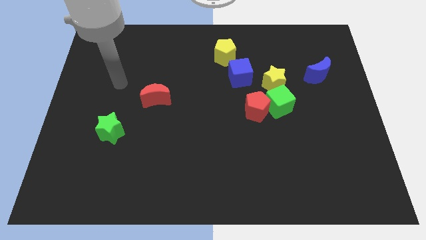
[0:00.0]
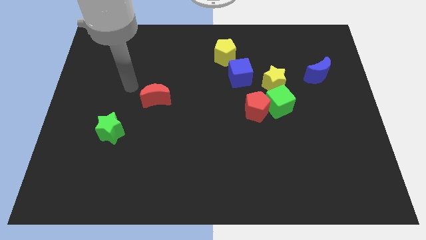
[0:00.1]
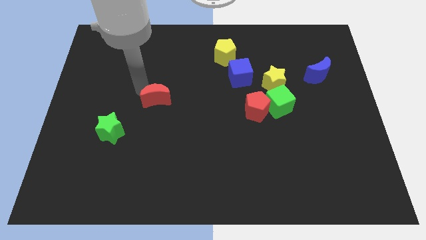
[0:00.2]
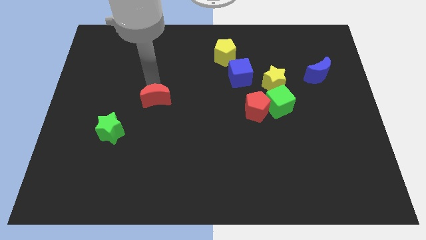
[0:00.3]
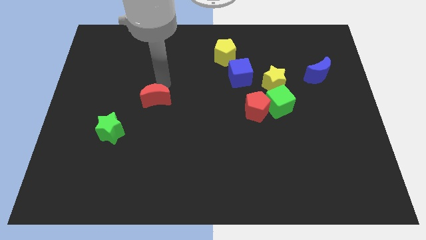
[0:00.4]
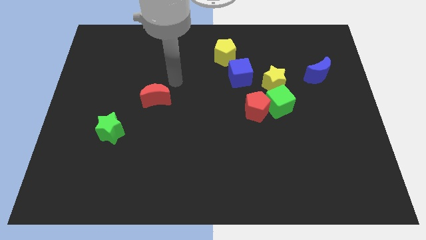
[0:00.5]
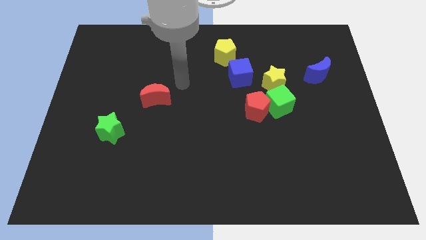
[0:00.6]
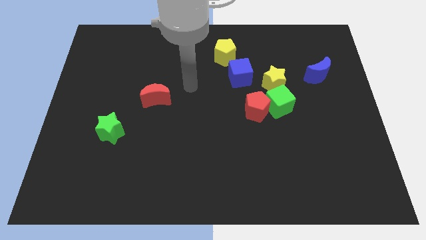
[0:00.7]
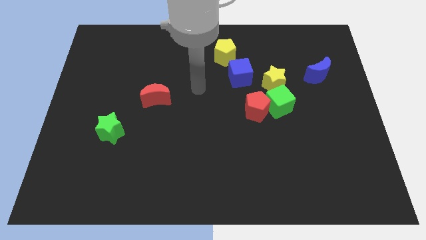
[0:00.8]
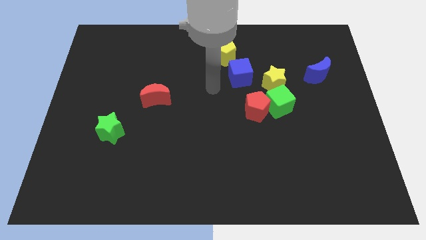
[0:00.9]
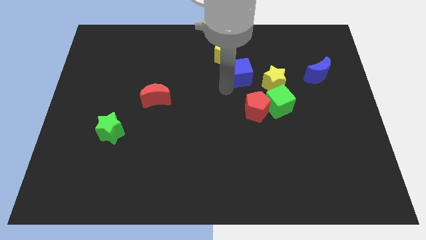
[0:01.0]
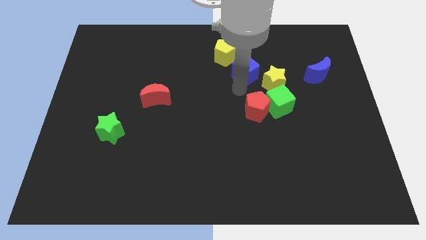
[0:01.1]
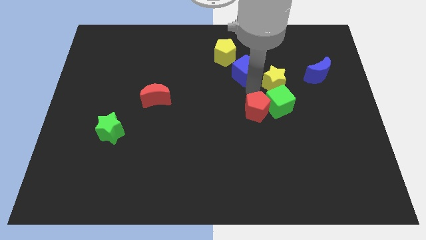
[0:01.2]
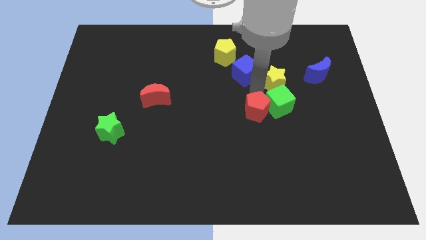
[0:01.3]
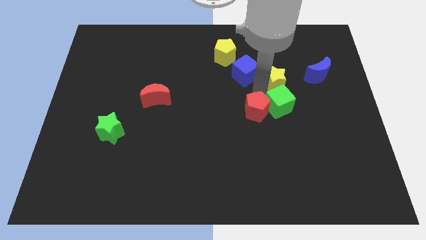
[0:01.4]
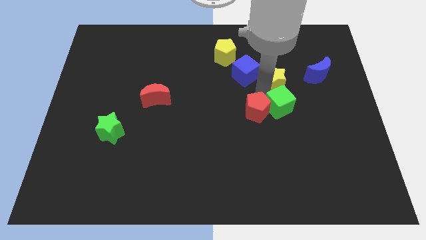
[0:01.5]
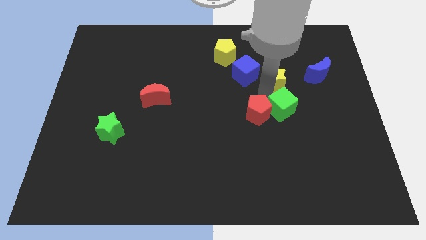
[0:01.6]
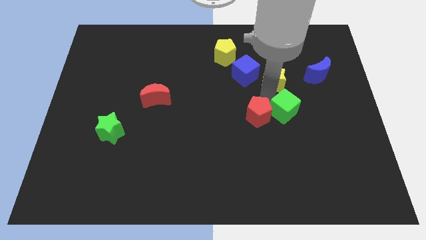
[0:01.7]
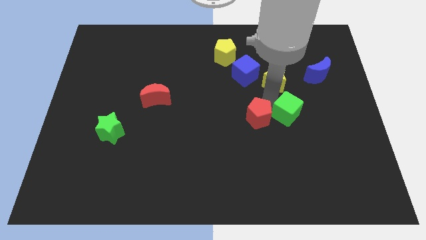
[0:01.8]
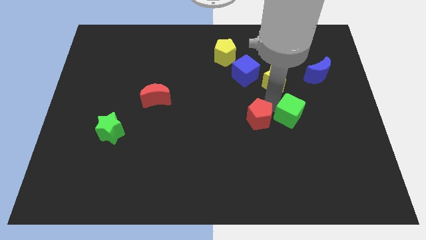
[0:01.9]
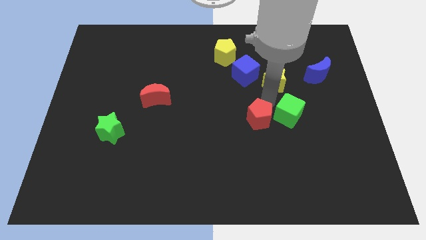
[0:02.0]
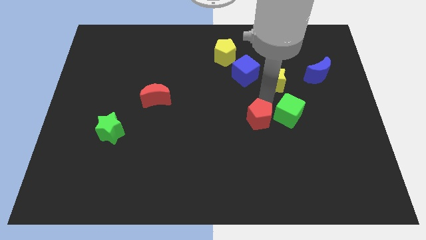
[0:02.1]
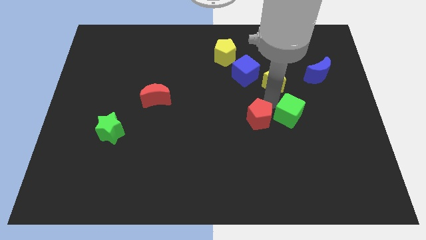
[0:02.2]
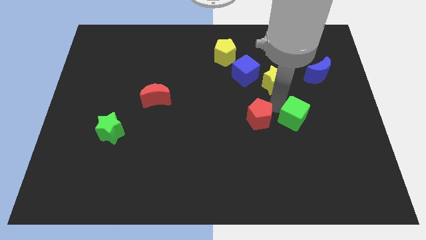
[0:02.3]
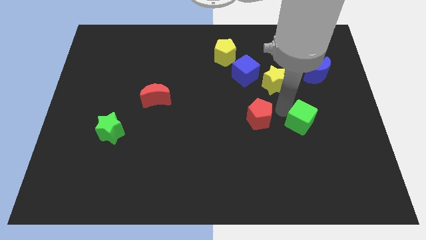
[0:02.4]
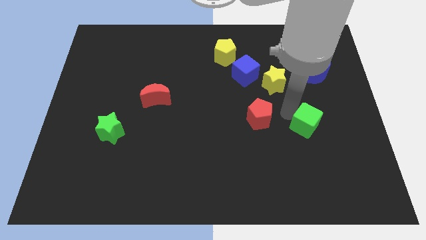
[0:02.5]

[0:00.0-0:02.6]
separate the green cube from the red pentagon and yellow star

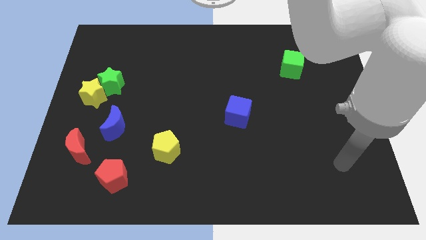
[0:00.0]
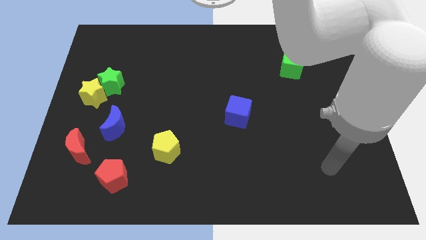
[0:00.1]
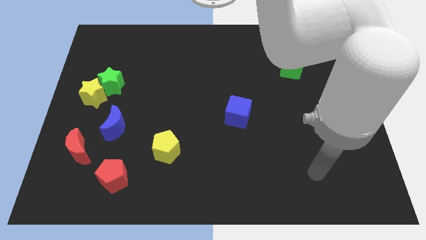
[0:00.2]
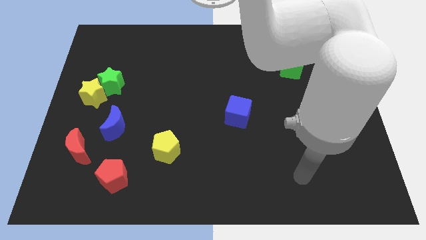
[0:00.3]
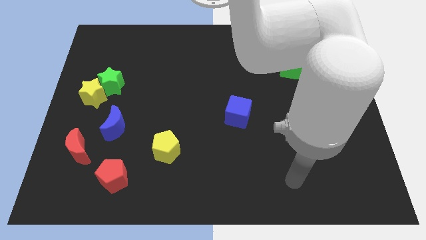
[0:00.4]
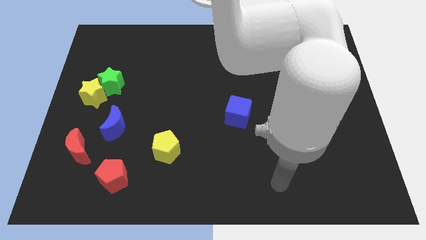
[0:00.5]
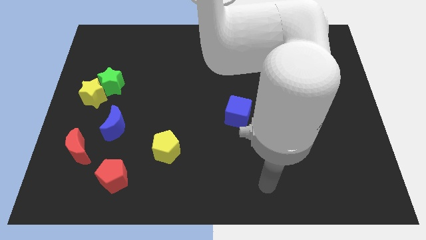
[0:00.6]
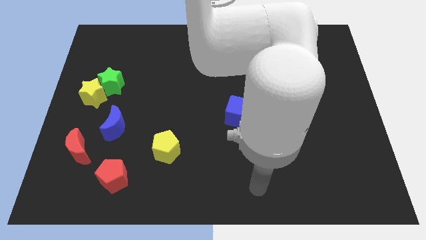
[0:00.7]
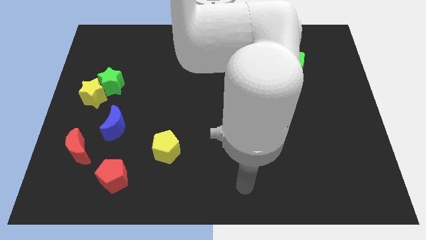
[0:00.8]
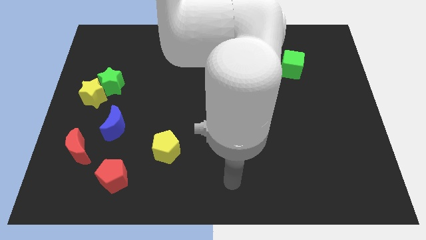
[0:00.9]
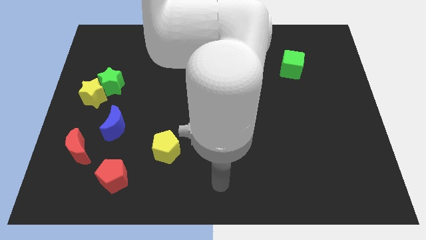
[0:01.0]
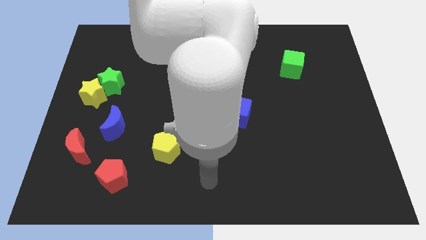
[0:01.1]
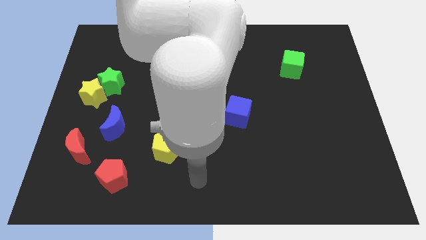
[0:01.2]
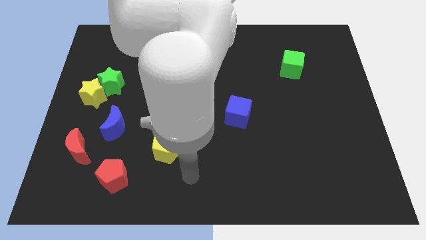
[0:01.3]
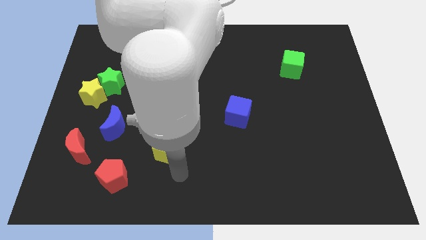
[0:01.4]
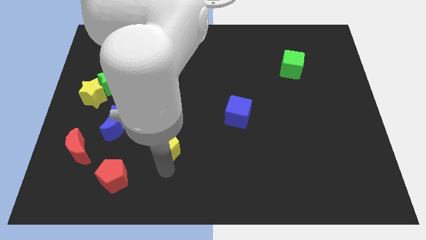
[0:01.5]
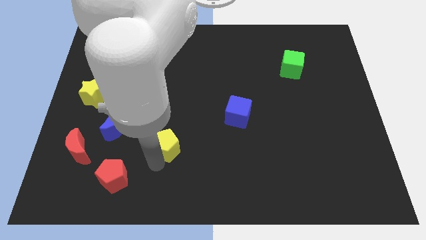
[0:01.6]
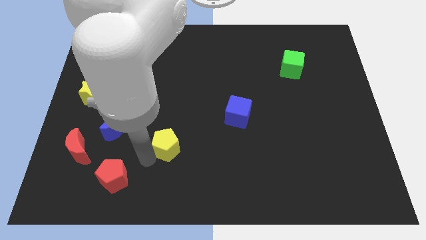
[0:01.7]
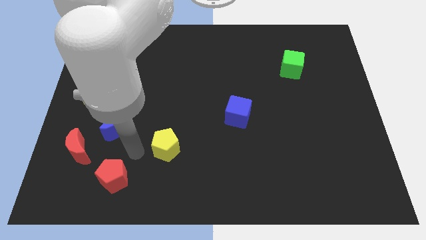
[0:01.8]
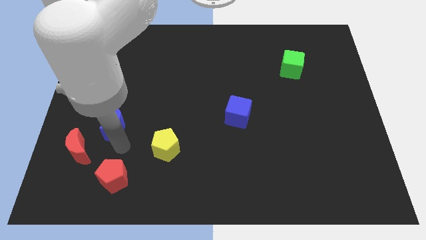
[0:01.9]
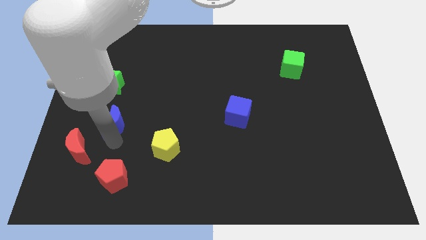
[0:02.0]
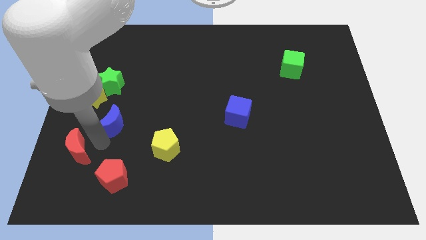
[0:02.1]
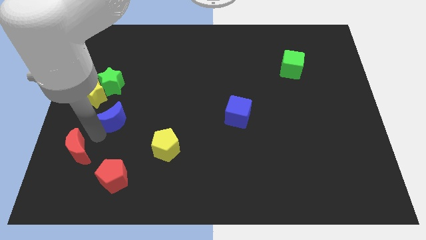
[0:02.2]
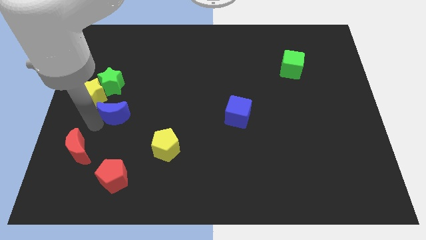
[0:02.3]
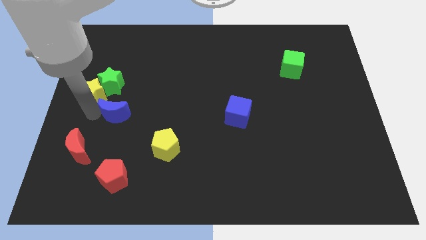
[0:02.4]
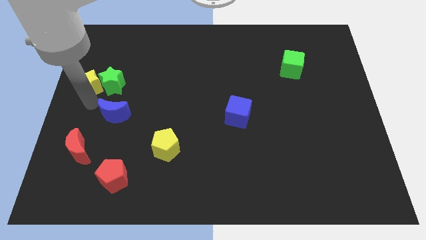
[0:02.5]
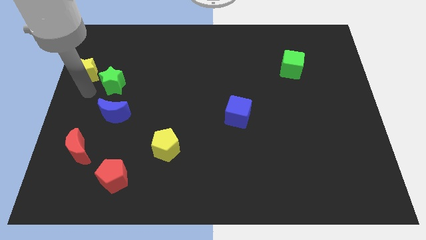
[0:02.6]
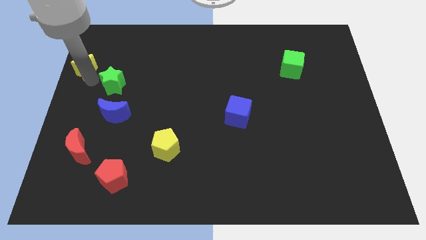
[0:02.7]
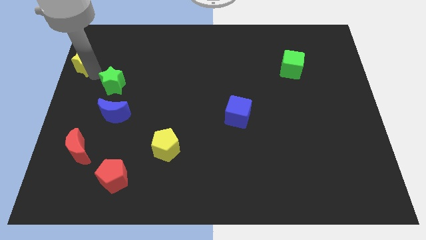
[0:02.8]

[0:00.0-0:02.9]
separate the green star from the yellow star

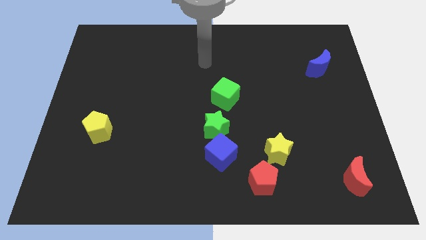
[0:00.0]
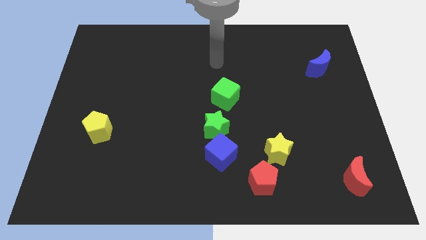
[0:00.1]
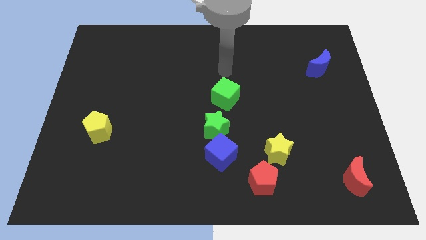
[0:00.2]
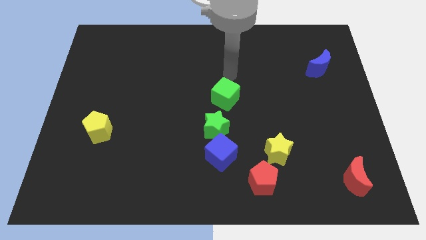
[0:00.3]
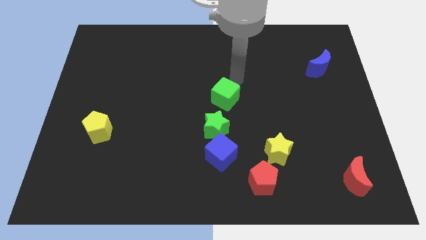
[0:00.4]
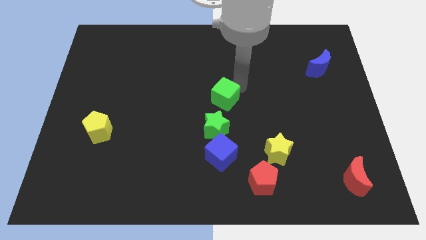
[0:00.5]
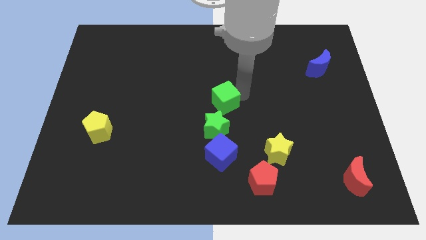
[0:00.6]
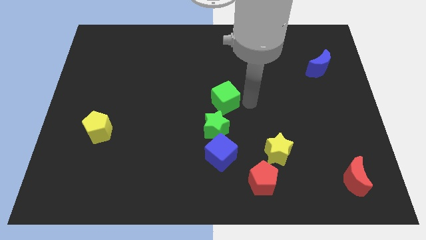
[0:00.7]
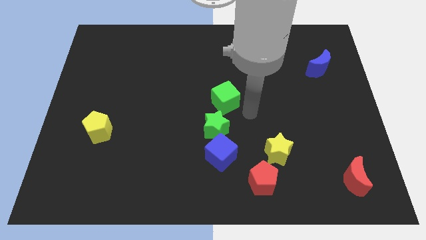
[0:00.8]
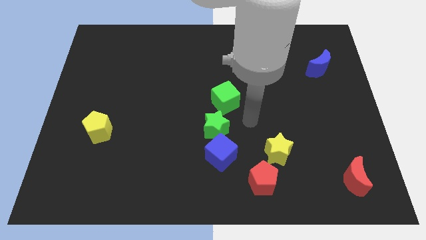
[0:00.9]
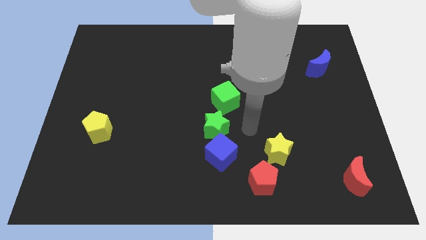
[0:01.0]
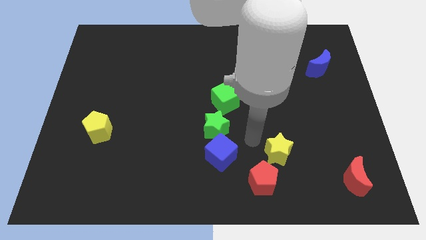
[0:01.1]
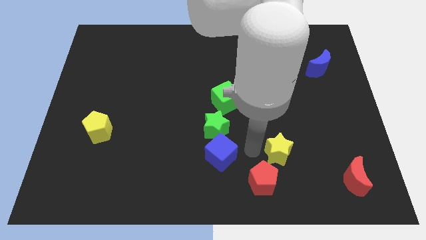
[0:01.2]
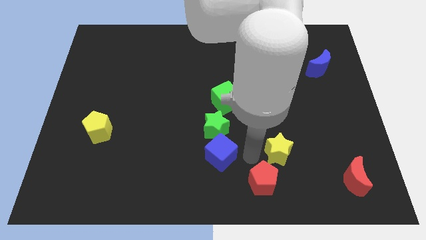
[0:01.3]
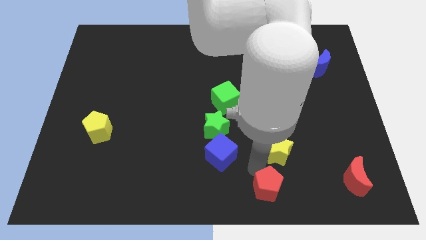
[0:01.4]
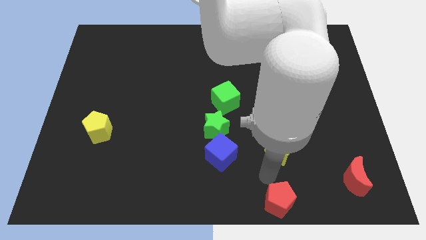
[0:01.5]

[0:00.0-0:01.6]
move the yellow star away from the red pentagon

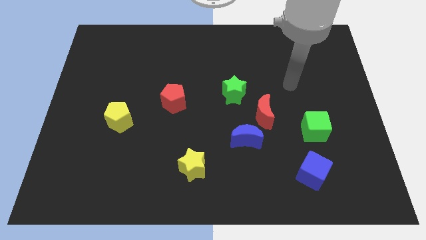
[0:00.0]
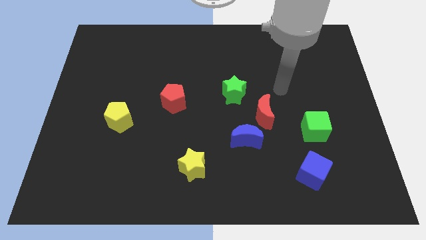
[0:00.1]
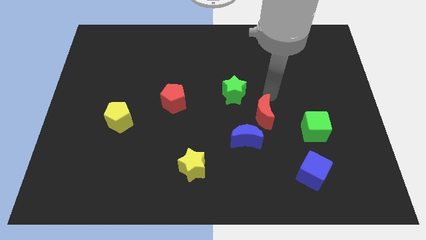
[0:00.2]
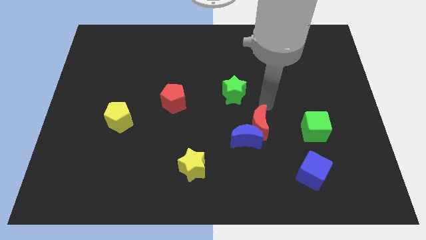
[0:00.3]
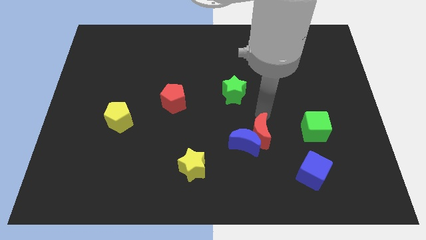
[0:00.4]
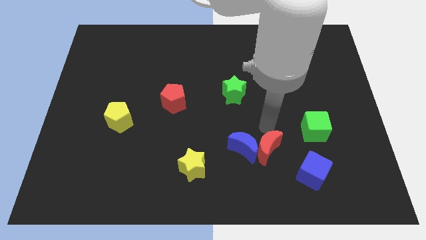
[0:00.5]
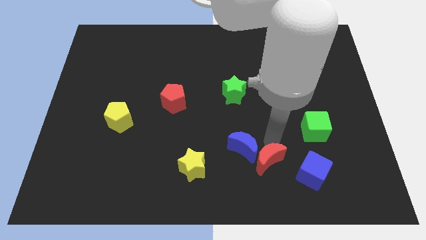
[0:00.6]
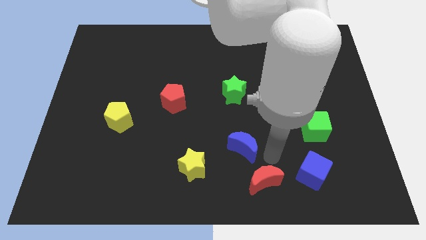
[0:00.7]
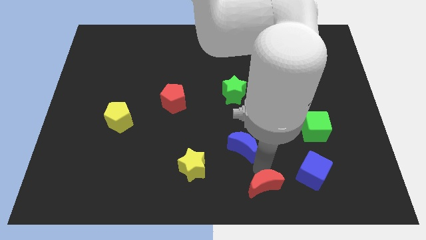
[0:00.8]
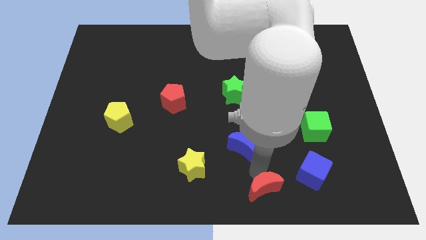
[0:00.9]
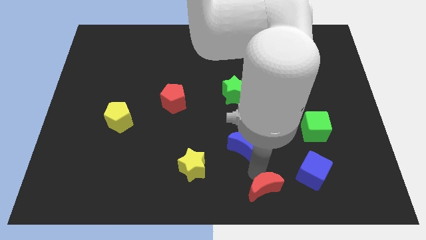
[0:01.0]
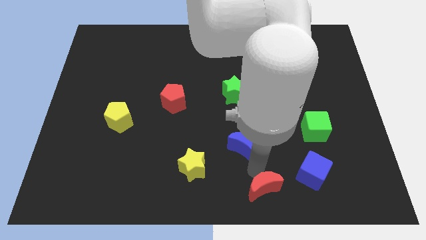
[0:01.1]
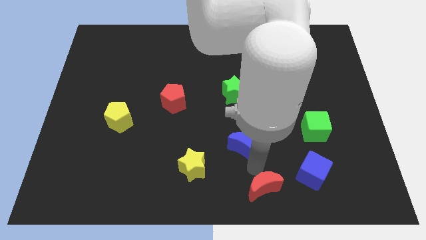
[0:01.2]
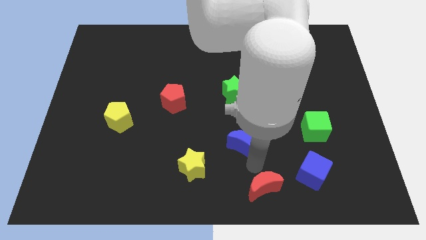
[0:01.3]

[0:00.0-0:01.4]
pull the blue moon apart from the red moon

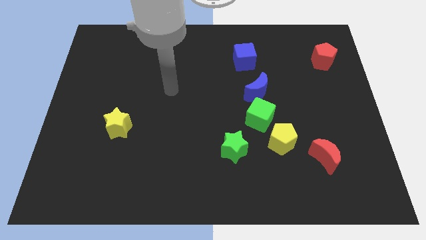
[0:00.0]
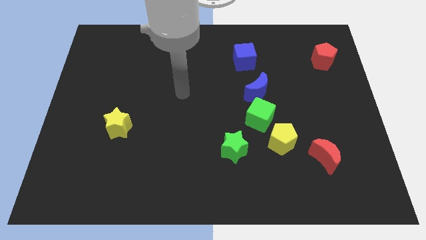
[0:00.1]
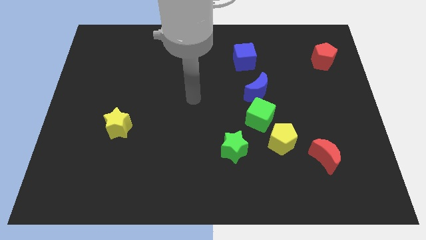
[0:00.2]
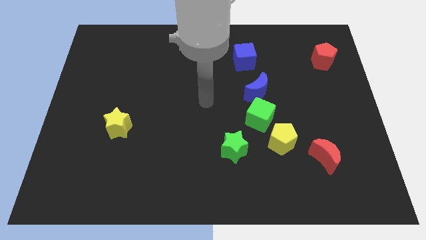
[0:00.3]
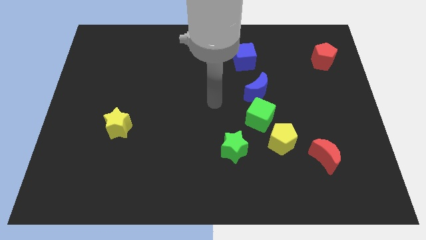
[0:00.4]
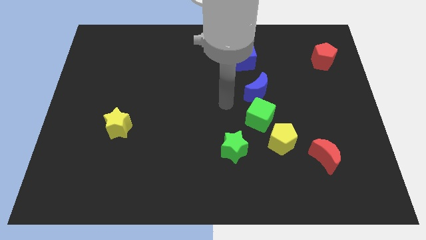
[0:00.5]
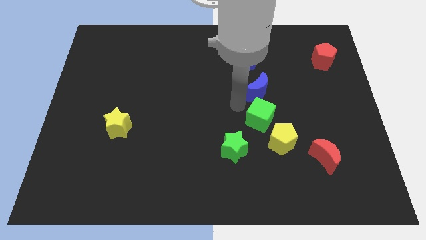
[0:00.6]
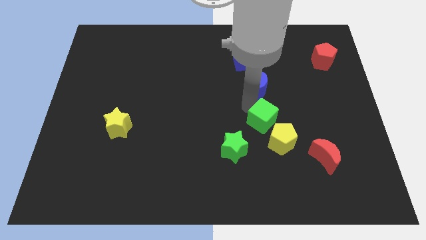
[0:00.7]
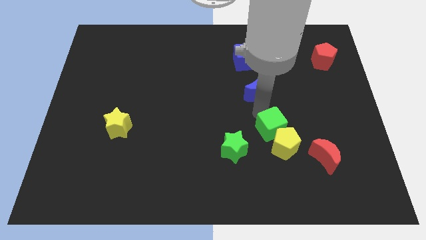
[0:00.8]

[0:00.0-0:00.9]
pull the blue moon apart from the green cube
